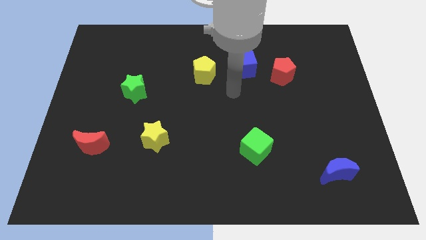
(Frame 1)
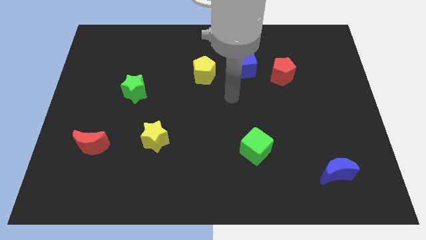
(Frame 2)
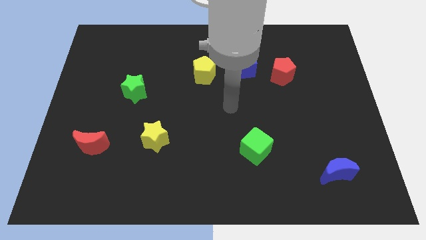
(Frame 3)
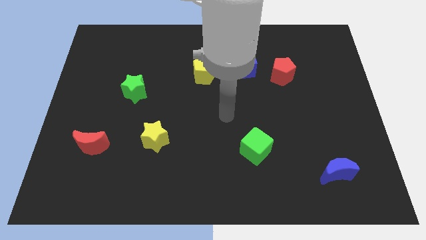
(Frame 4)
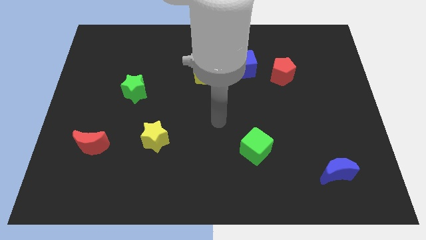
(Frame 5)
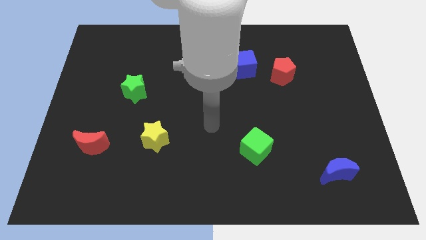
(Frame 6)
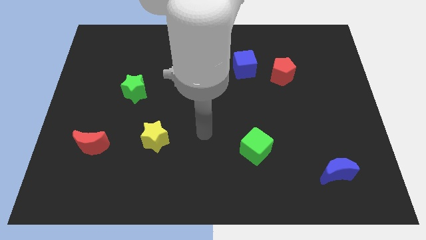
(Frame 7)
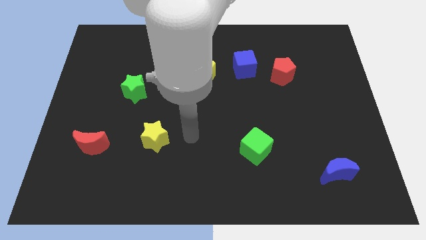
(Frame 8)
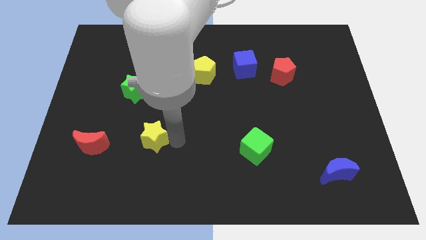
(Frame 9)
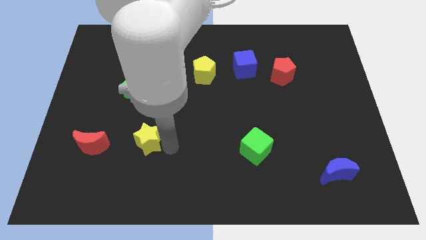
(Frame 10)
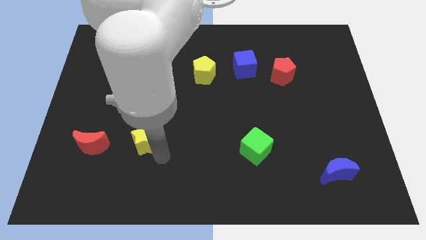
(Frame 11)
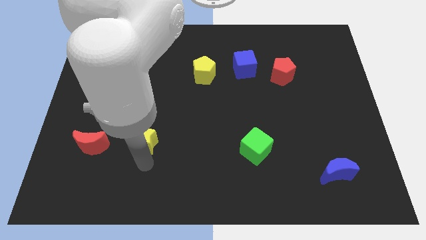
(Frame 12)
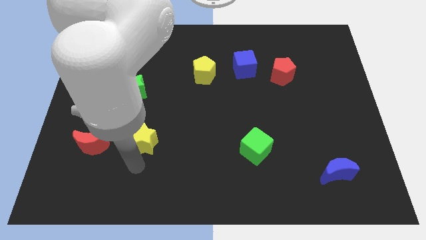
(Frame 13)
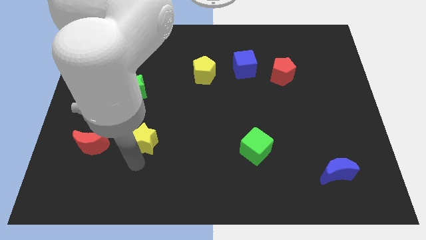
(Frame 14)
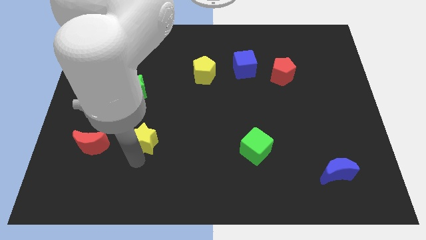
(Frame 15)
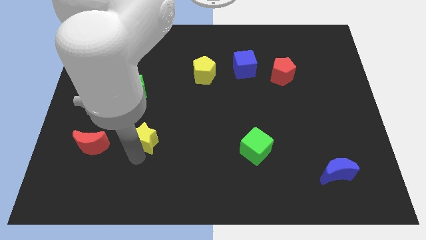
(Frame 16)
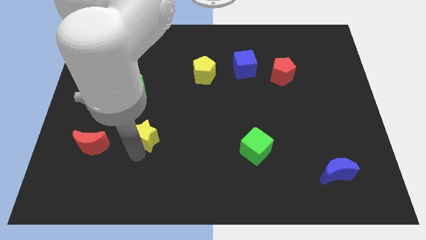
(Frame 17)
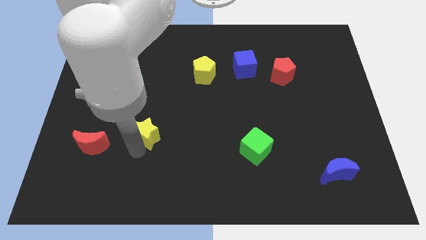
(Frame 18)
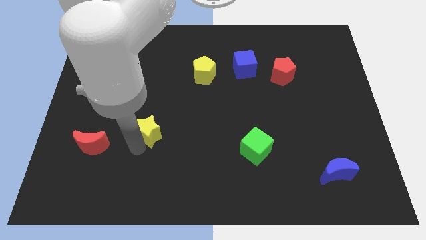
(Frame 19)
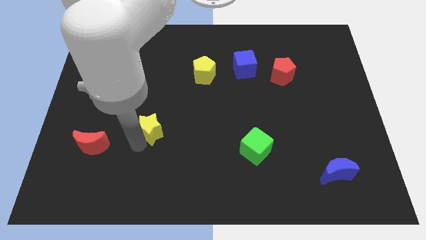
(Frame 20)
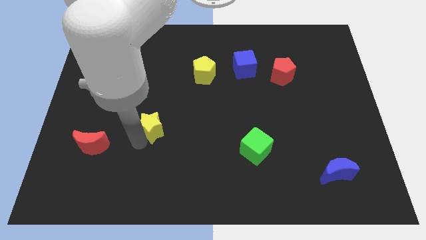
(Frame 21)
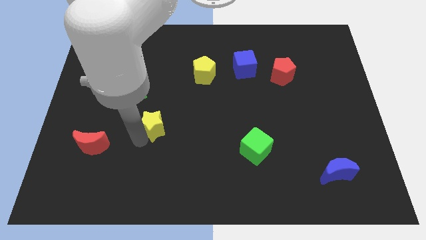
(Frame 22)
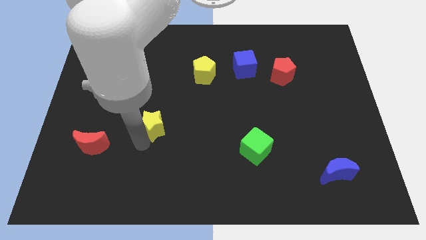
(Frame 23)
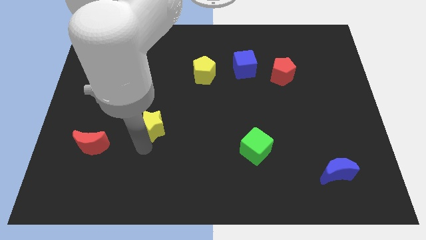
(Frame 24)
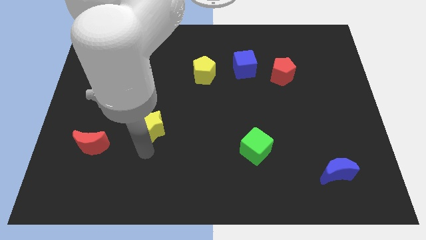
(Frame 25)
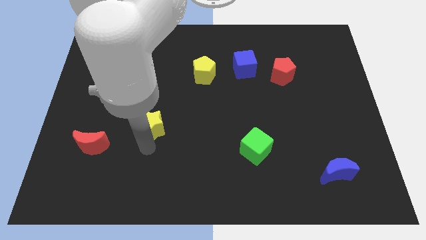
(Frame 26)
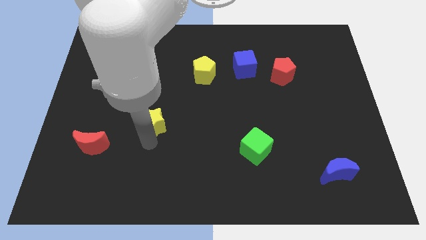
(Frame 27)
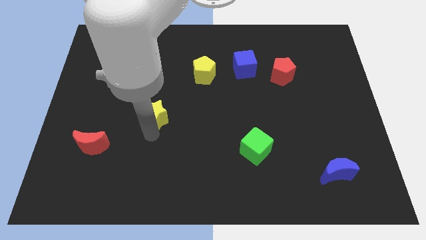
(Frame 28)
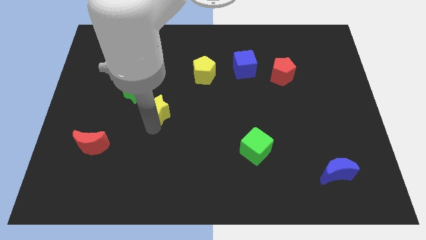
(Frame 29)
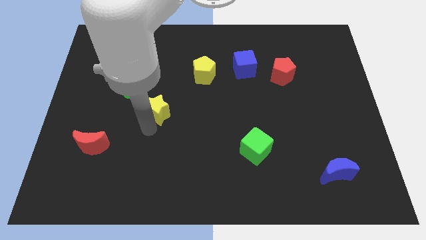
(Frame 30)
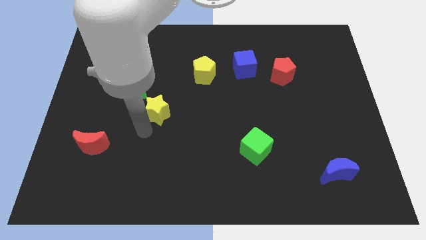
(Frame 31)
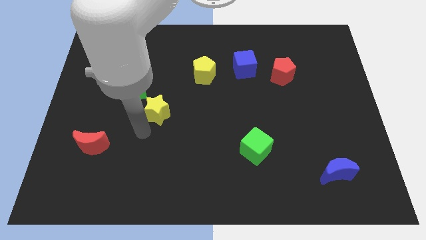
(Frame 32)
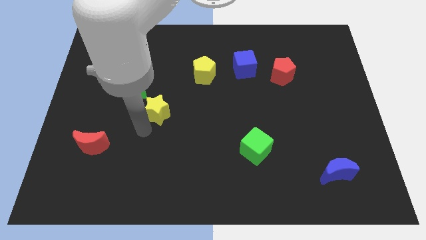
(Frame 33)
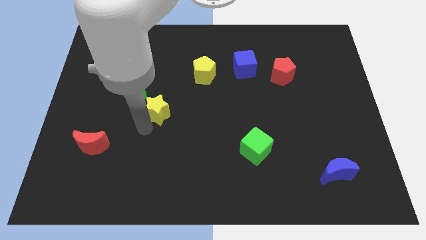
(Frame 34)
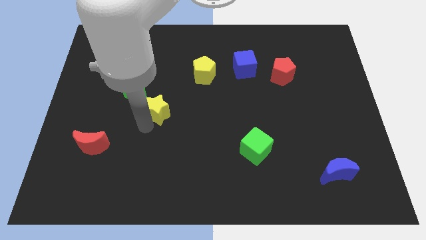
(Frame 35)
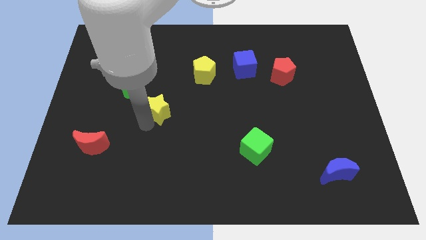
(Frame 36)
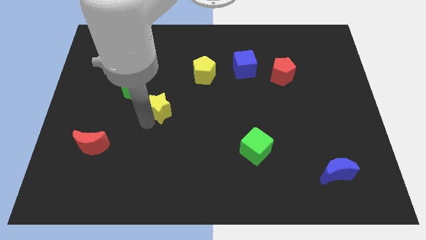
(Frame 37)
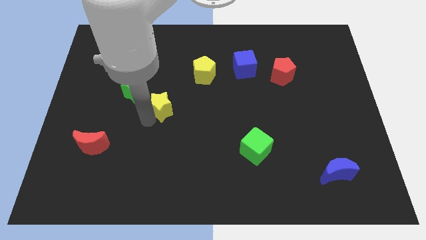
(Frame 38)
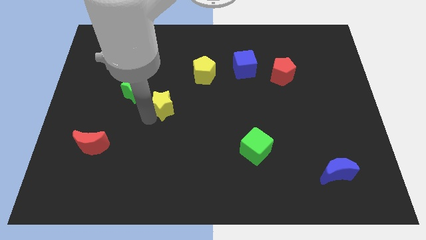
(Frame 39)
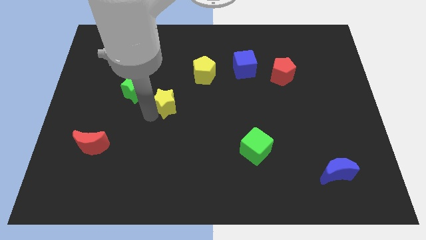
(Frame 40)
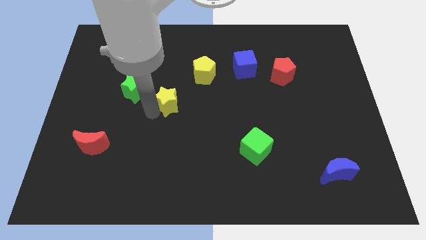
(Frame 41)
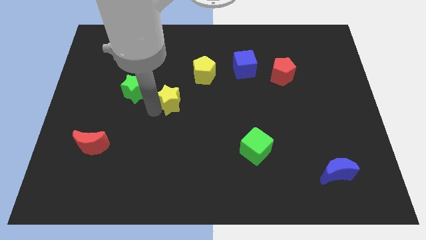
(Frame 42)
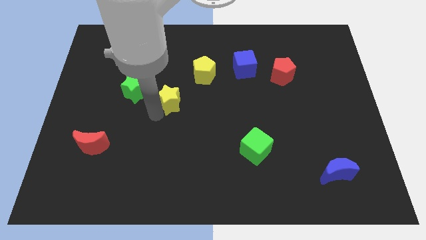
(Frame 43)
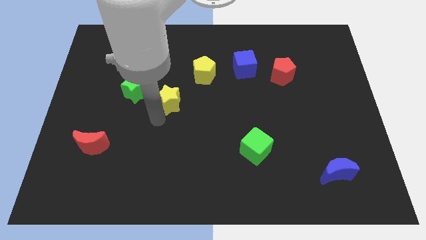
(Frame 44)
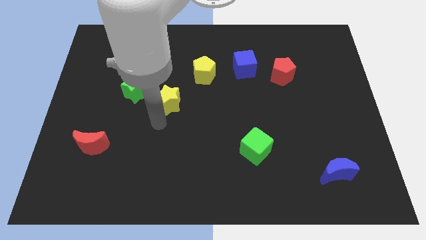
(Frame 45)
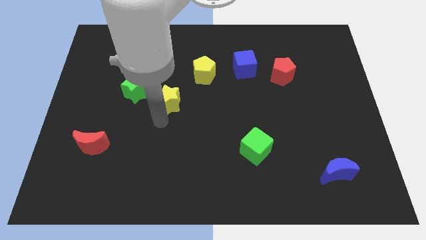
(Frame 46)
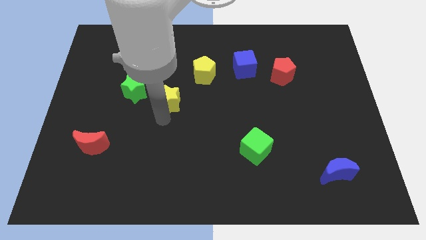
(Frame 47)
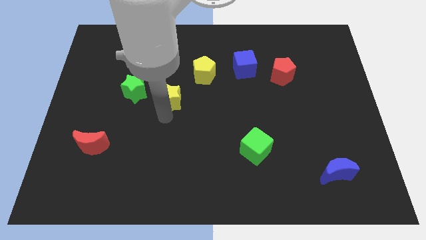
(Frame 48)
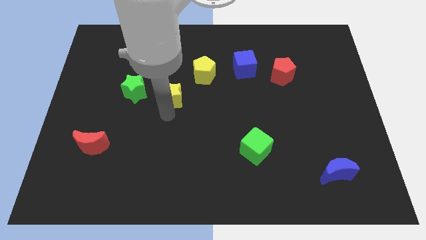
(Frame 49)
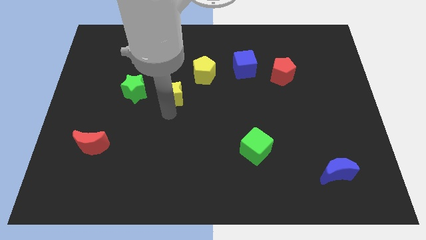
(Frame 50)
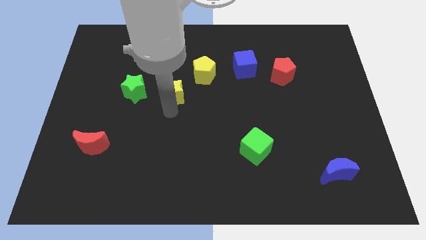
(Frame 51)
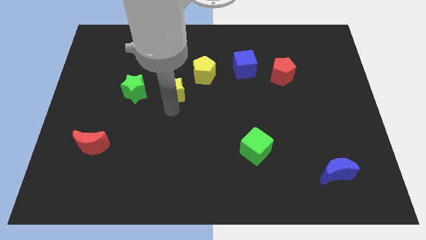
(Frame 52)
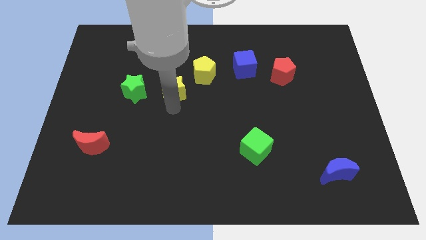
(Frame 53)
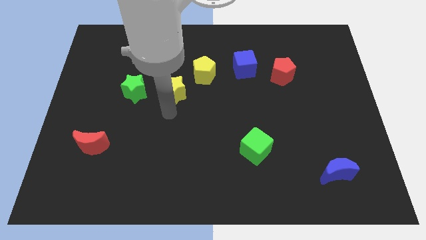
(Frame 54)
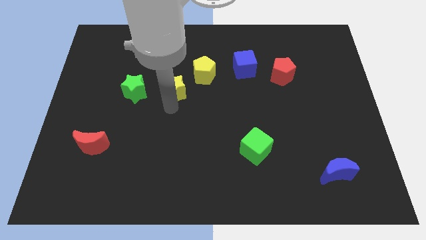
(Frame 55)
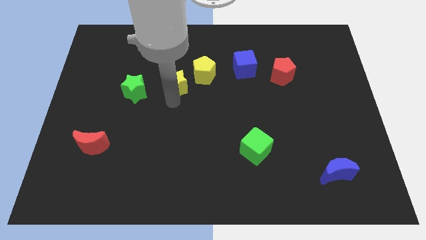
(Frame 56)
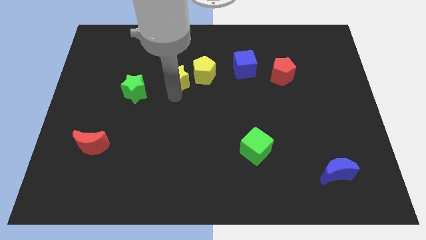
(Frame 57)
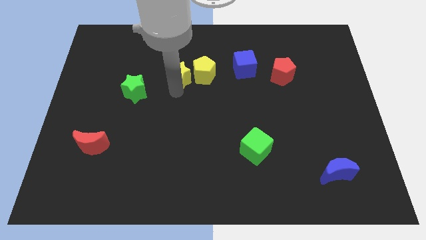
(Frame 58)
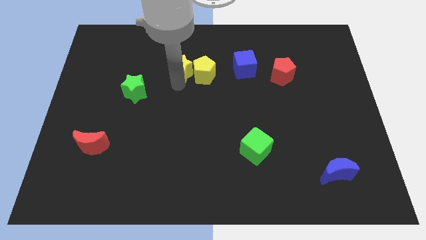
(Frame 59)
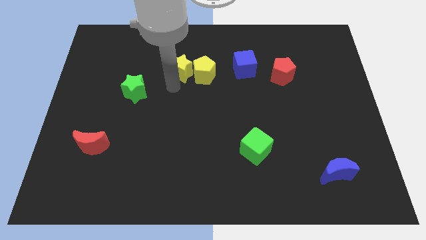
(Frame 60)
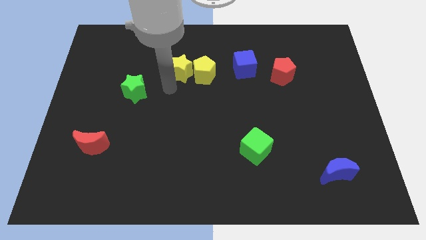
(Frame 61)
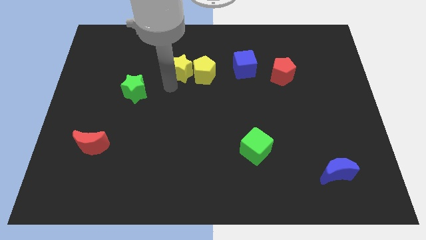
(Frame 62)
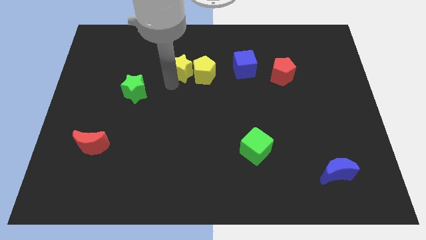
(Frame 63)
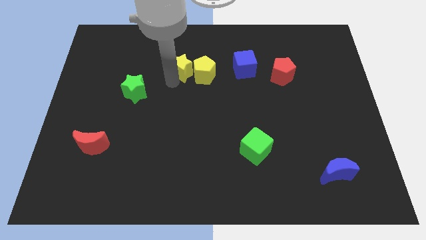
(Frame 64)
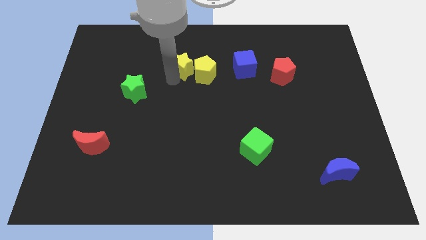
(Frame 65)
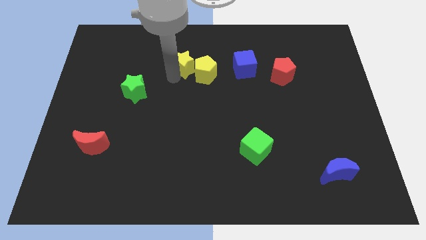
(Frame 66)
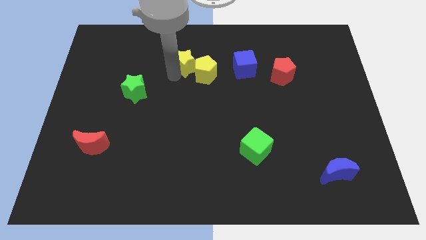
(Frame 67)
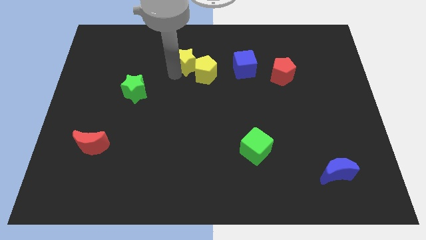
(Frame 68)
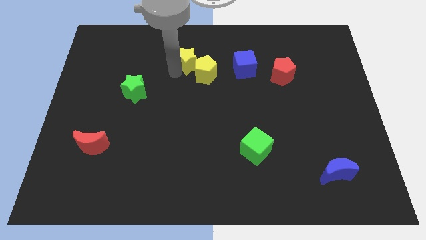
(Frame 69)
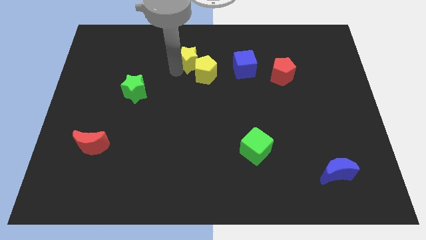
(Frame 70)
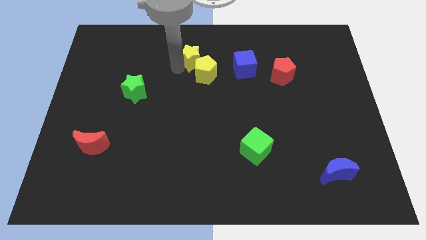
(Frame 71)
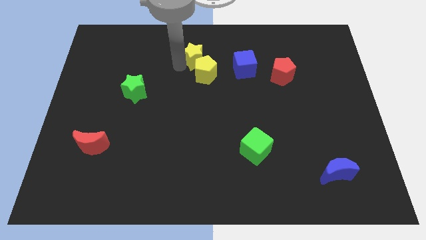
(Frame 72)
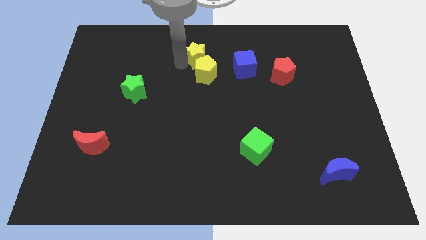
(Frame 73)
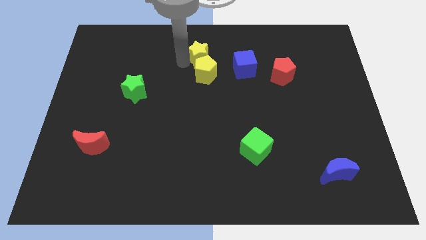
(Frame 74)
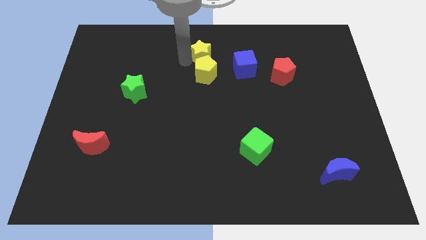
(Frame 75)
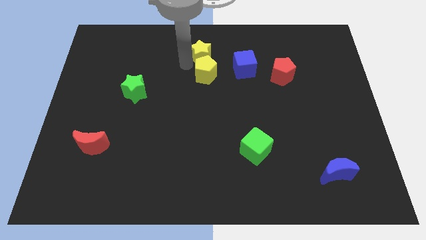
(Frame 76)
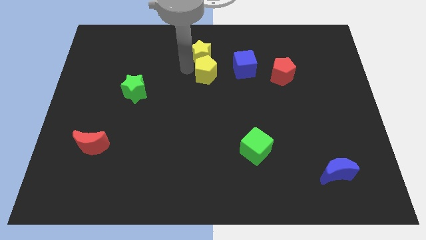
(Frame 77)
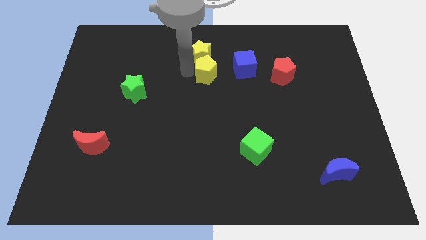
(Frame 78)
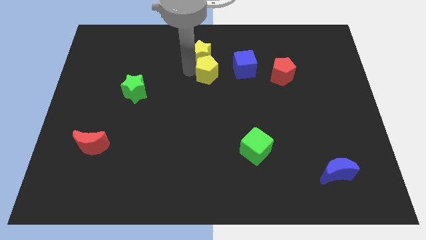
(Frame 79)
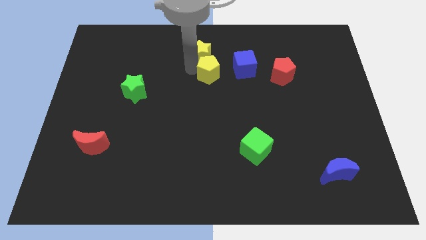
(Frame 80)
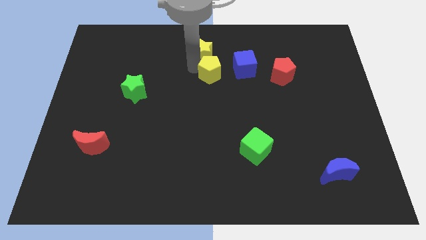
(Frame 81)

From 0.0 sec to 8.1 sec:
put the yellow star to the towards your base
